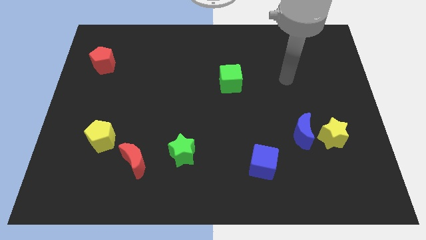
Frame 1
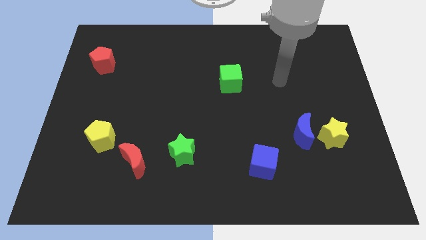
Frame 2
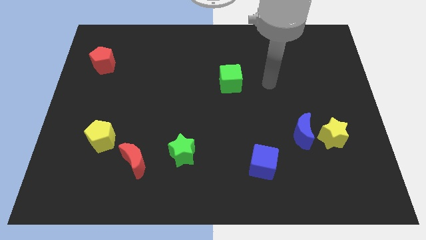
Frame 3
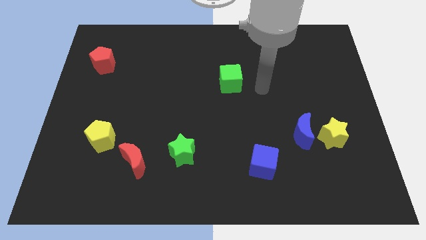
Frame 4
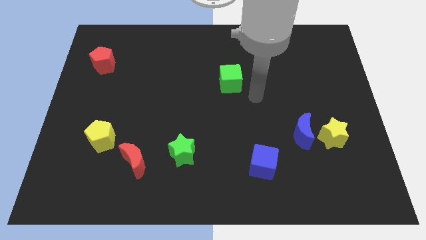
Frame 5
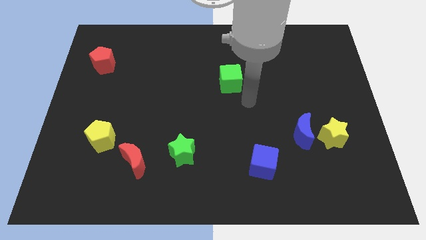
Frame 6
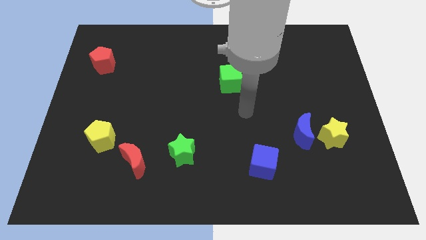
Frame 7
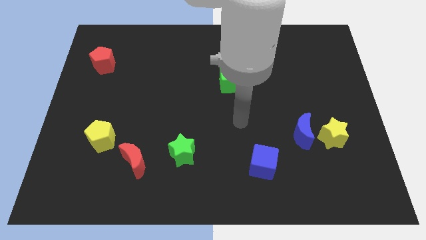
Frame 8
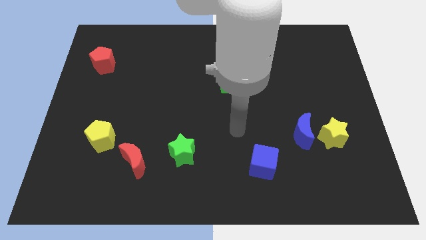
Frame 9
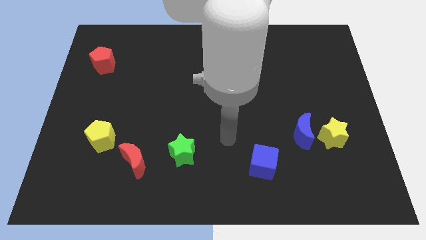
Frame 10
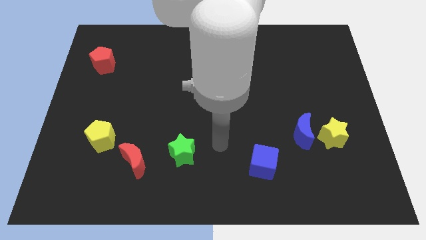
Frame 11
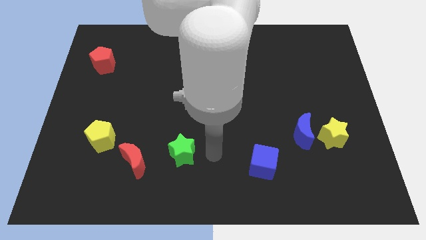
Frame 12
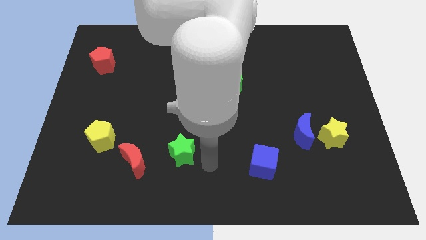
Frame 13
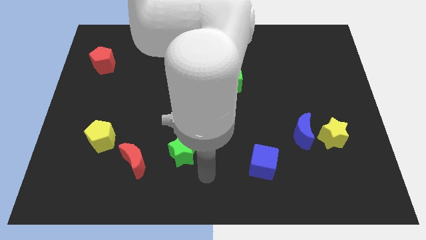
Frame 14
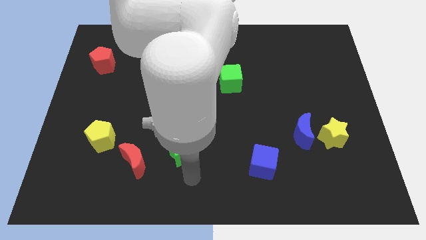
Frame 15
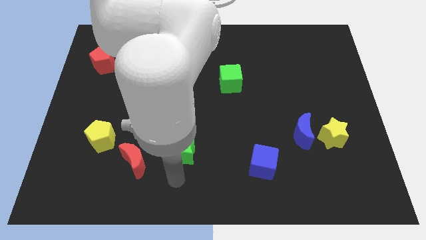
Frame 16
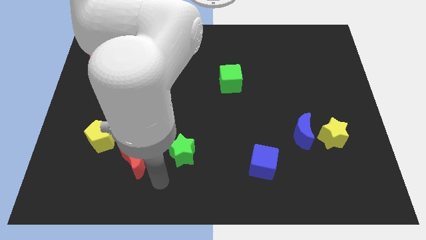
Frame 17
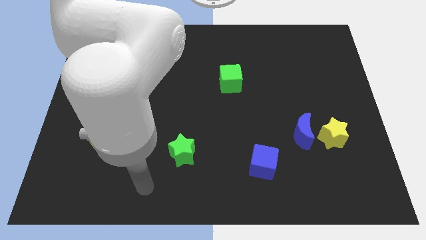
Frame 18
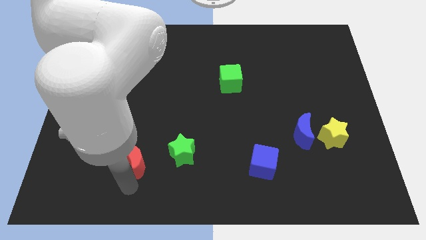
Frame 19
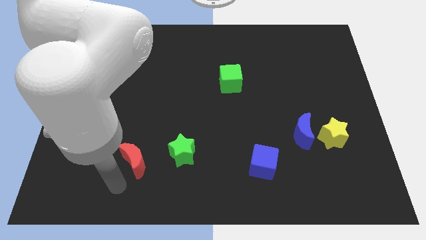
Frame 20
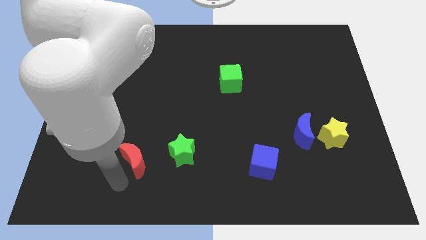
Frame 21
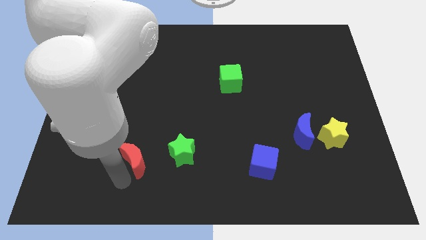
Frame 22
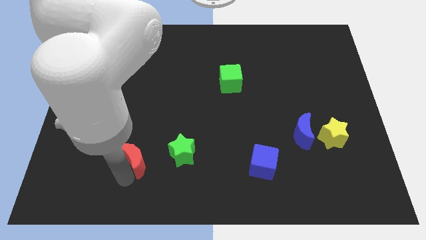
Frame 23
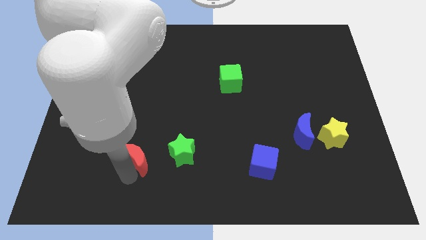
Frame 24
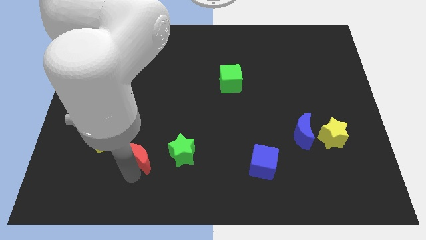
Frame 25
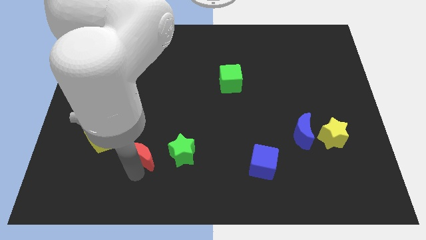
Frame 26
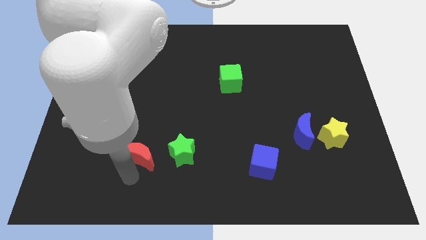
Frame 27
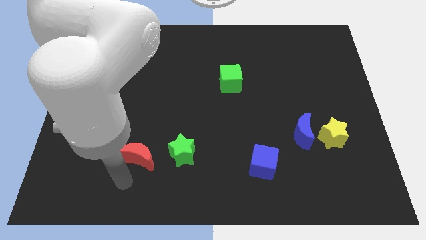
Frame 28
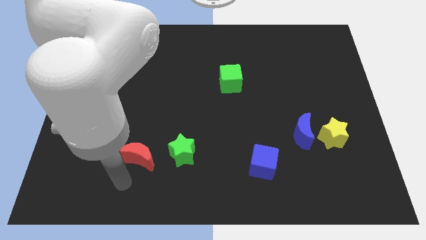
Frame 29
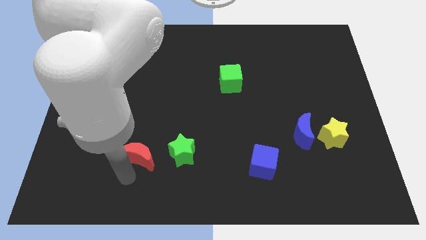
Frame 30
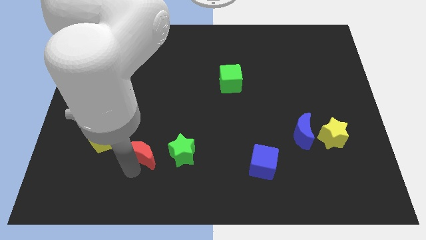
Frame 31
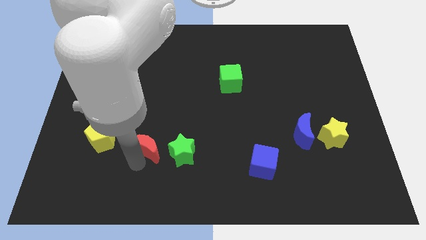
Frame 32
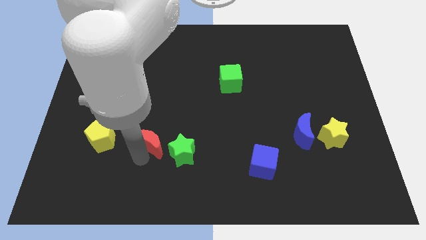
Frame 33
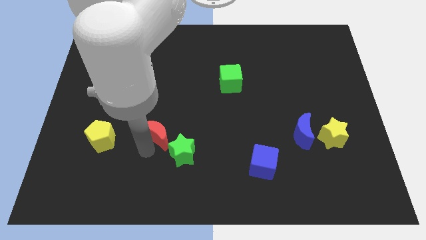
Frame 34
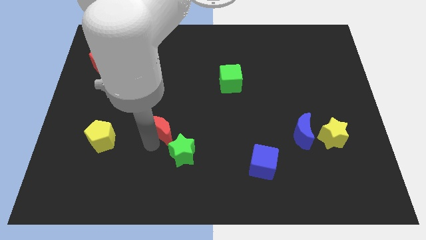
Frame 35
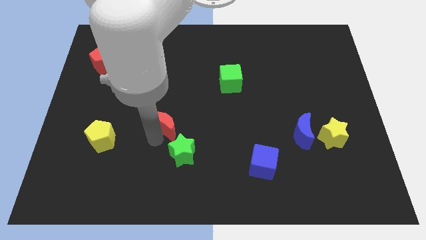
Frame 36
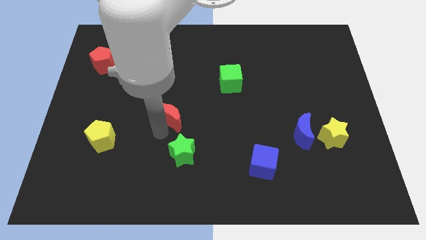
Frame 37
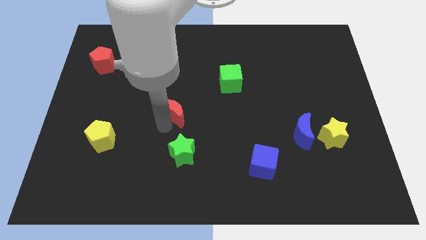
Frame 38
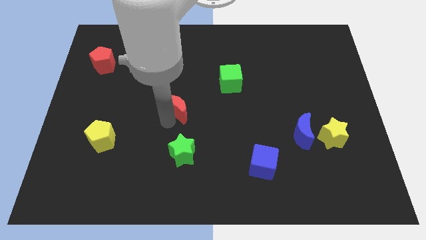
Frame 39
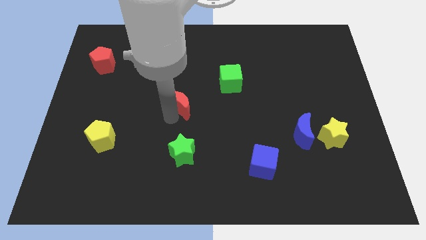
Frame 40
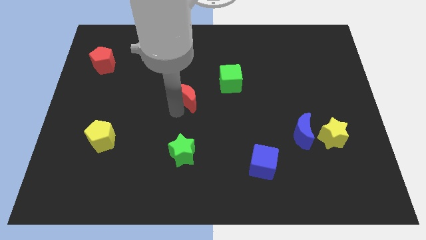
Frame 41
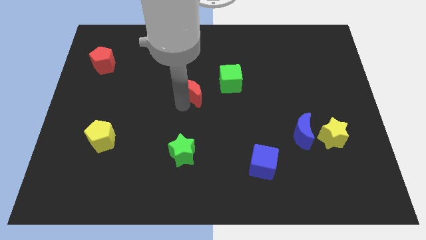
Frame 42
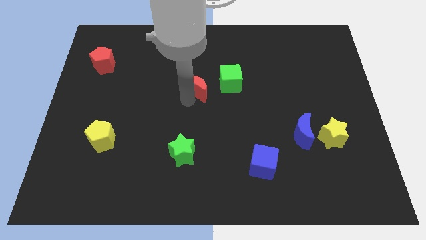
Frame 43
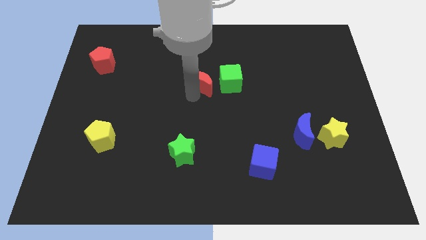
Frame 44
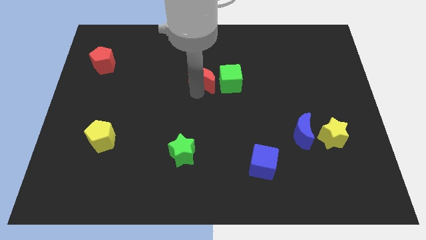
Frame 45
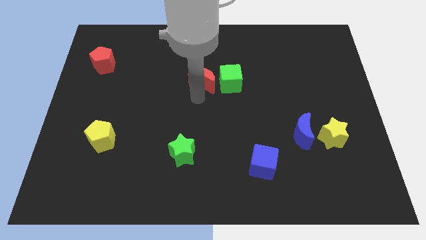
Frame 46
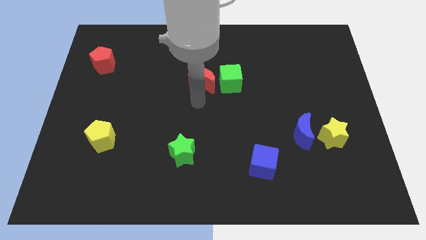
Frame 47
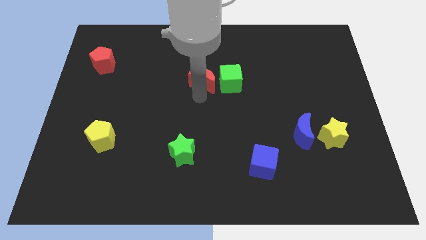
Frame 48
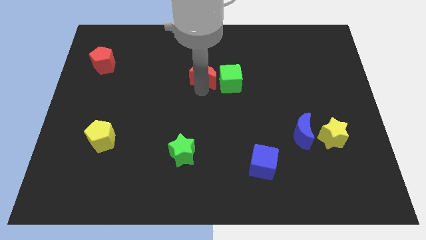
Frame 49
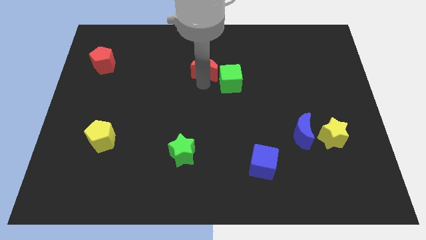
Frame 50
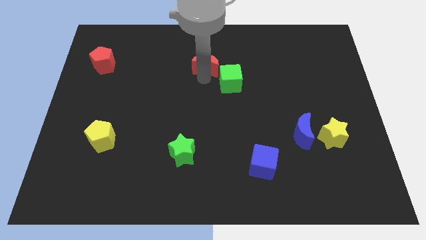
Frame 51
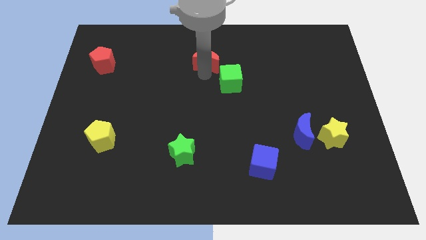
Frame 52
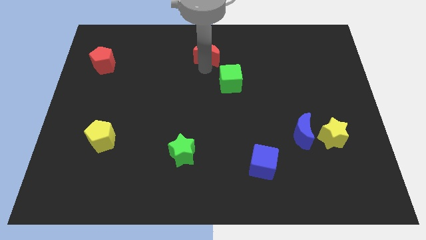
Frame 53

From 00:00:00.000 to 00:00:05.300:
put the red moon to the towards your base
